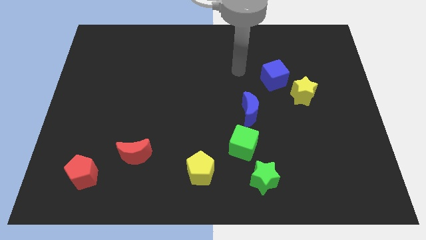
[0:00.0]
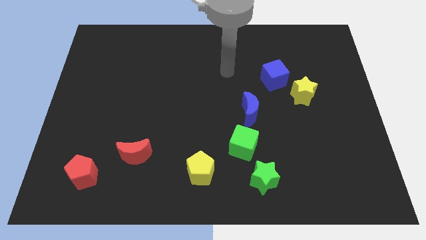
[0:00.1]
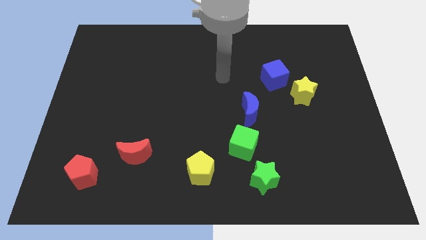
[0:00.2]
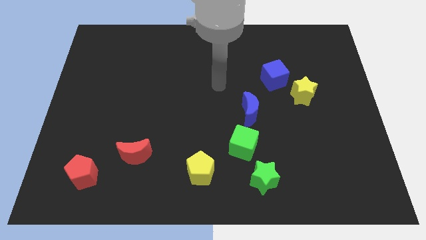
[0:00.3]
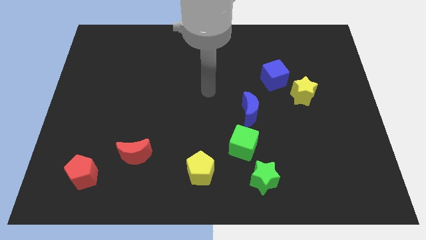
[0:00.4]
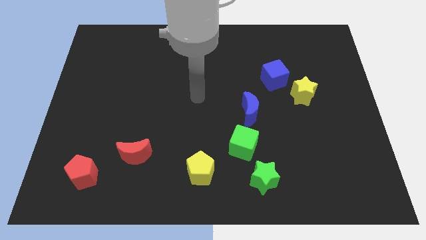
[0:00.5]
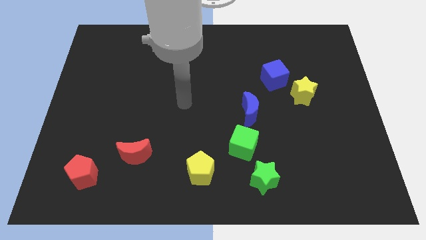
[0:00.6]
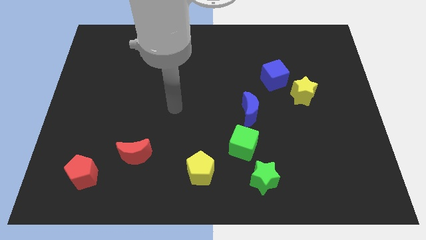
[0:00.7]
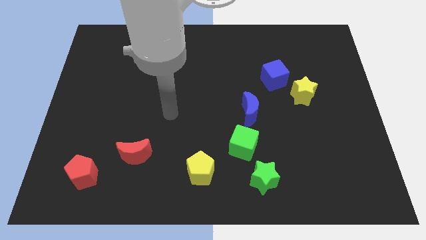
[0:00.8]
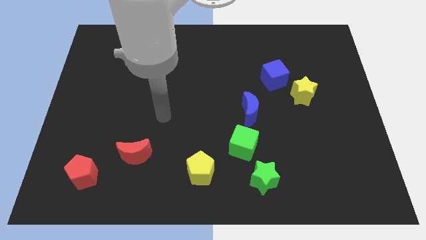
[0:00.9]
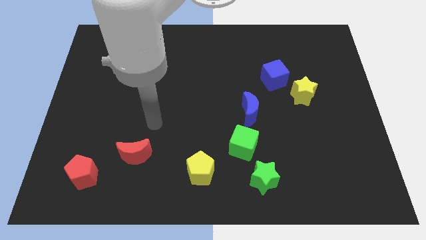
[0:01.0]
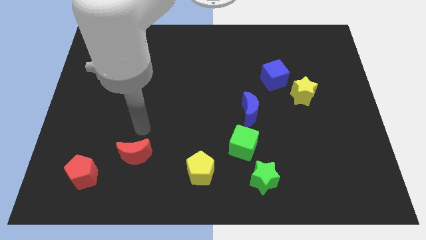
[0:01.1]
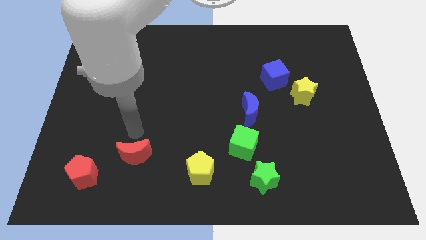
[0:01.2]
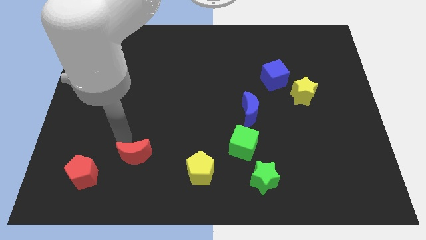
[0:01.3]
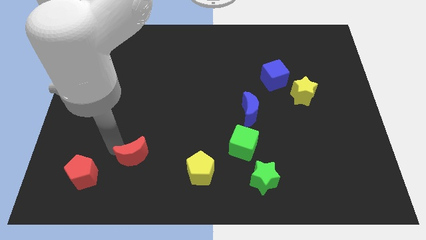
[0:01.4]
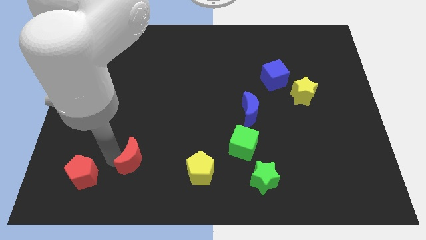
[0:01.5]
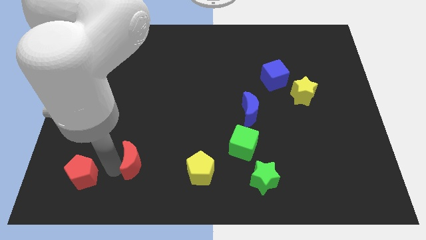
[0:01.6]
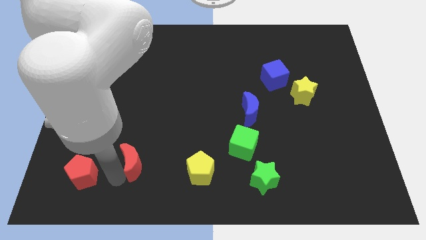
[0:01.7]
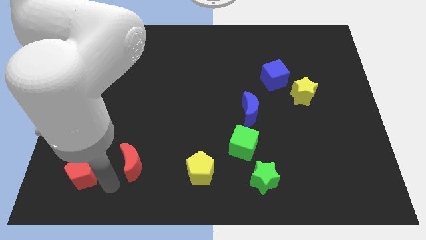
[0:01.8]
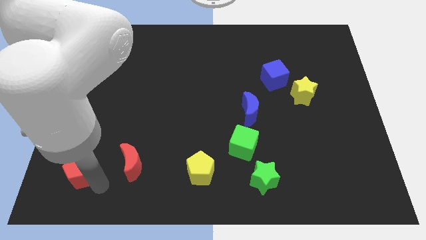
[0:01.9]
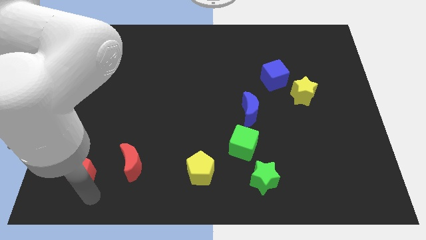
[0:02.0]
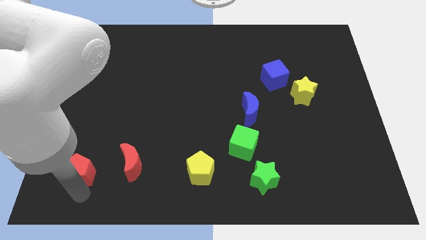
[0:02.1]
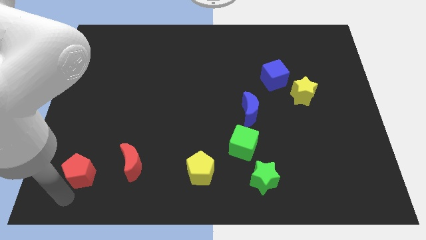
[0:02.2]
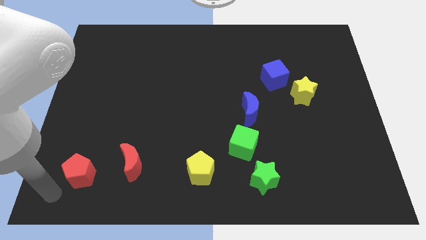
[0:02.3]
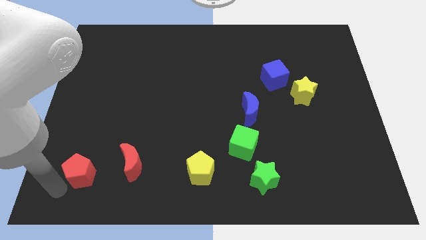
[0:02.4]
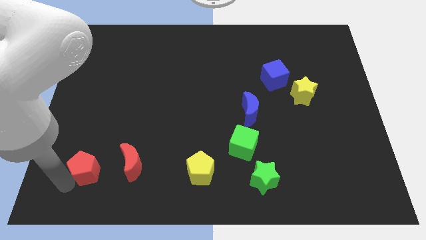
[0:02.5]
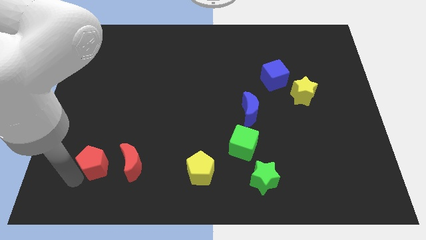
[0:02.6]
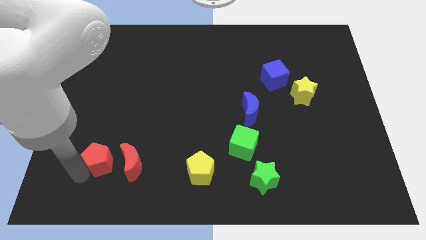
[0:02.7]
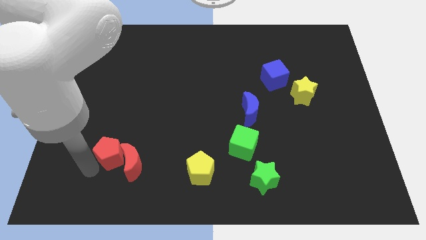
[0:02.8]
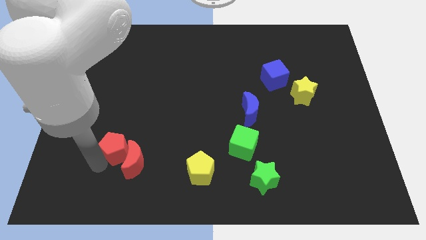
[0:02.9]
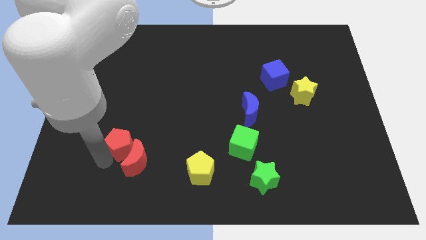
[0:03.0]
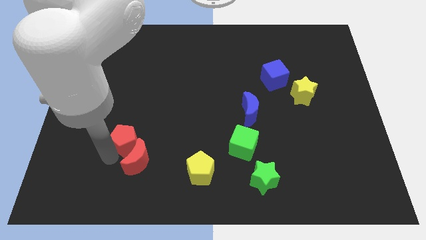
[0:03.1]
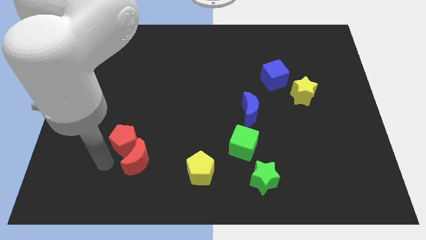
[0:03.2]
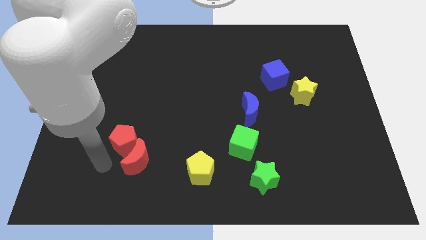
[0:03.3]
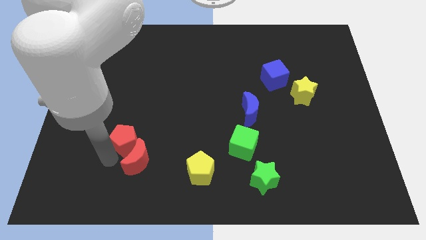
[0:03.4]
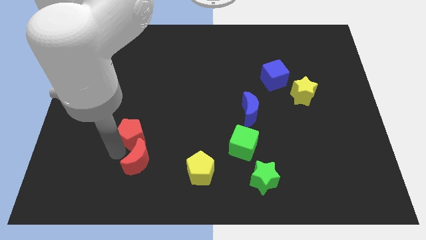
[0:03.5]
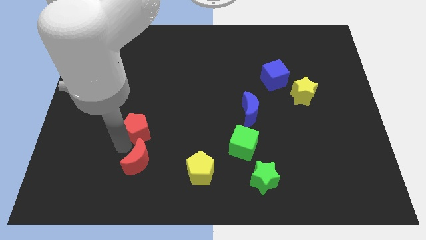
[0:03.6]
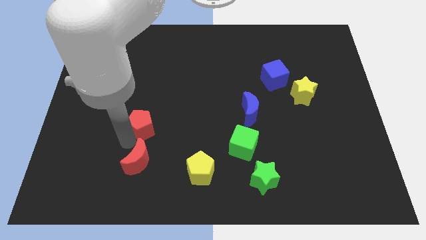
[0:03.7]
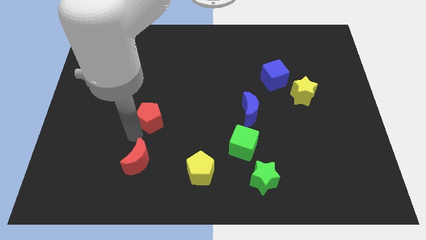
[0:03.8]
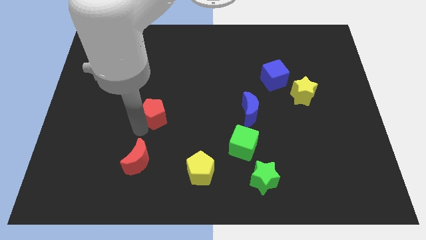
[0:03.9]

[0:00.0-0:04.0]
move the red pentagon upwards and to the right

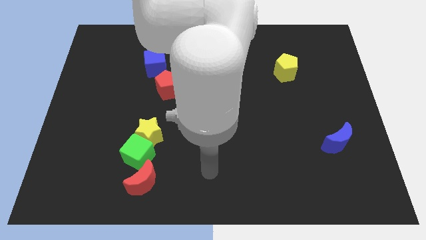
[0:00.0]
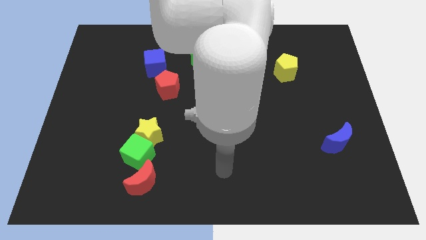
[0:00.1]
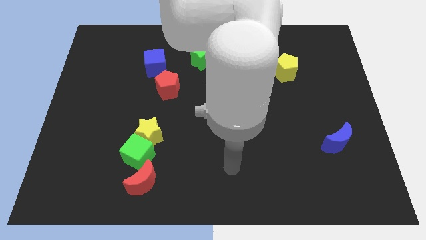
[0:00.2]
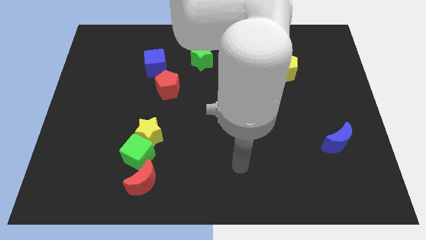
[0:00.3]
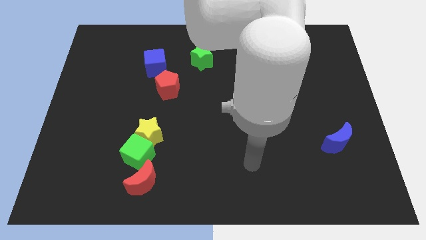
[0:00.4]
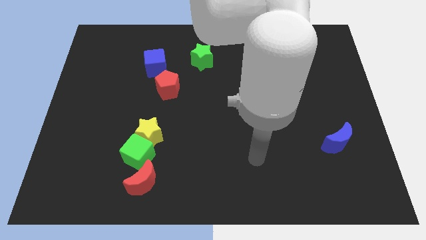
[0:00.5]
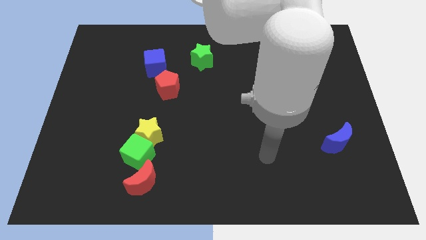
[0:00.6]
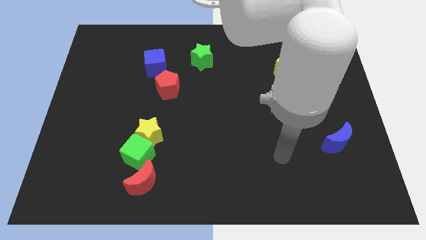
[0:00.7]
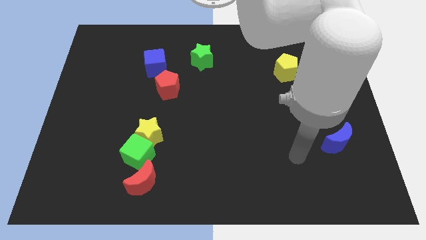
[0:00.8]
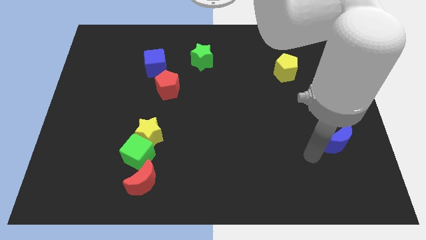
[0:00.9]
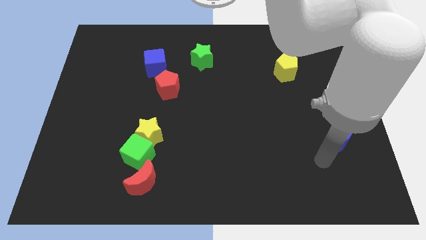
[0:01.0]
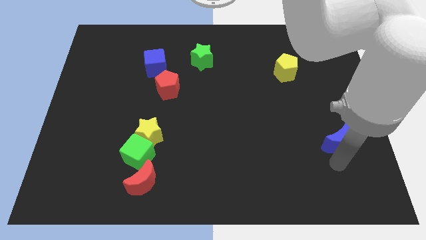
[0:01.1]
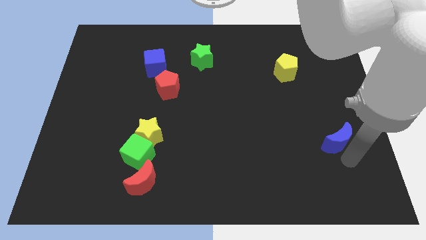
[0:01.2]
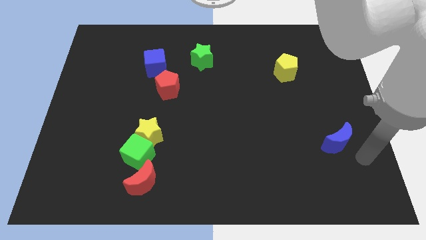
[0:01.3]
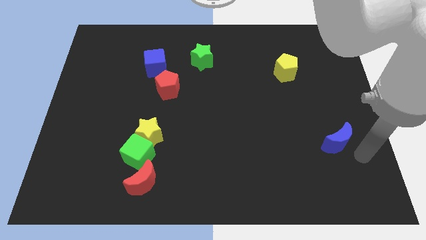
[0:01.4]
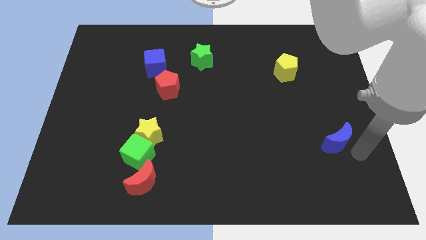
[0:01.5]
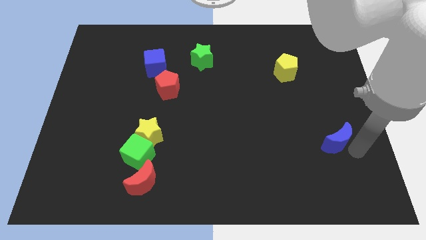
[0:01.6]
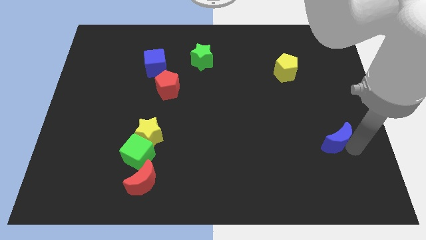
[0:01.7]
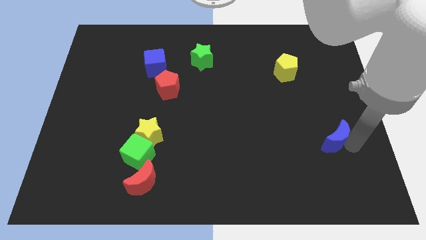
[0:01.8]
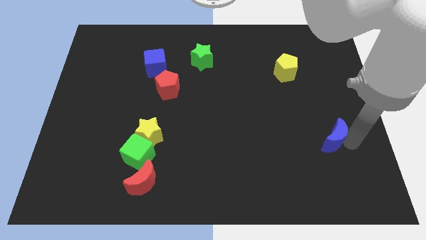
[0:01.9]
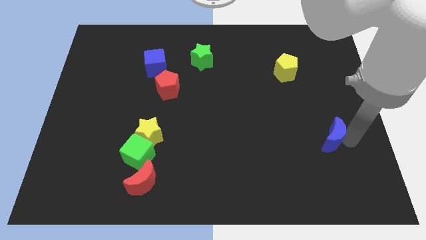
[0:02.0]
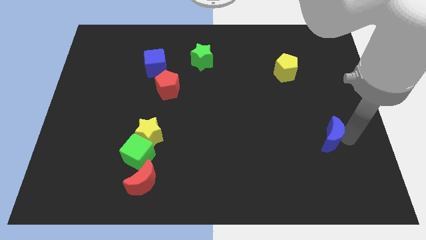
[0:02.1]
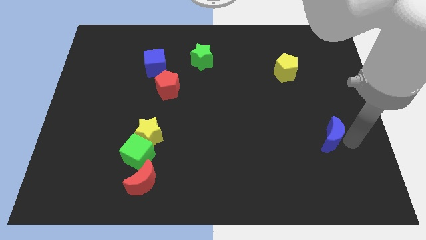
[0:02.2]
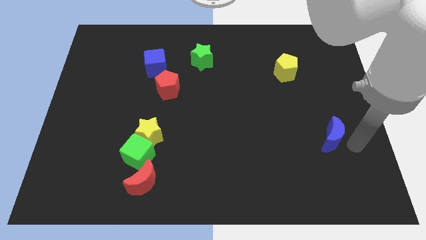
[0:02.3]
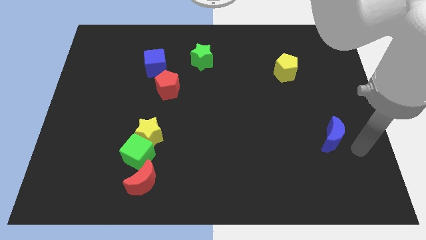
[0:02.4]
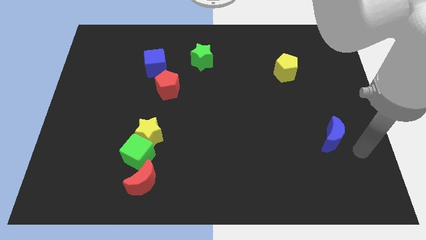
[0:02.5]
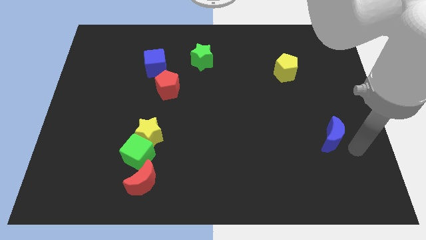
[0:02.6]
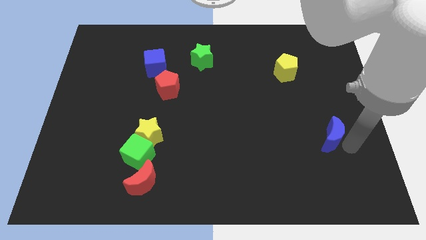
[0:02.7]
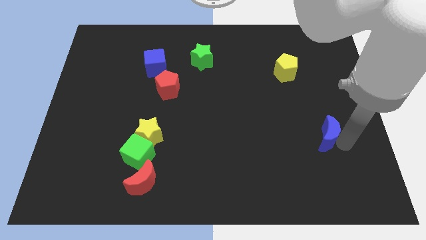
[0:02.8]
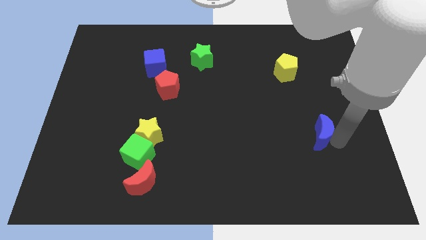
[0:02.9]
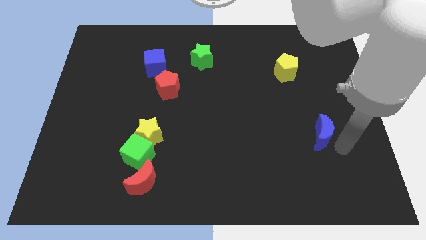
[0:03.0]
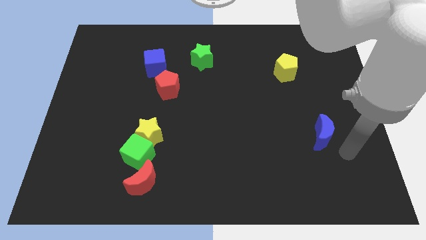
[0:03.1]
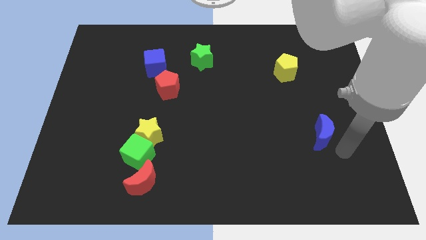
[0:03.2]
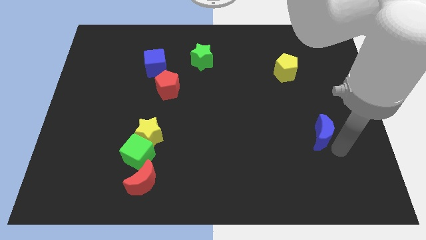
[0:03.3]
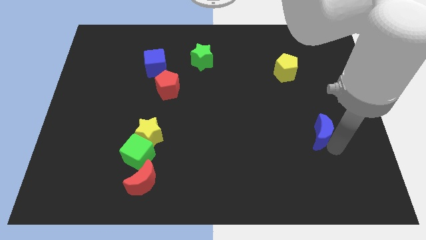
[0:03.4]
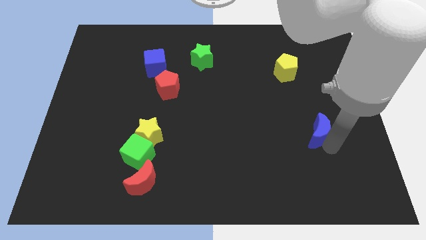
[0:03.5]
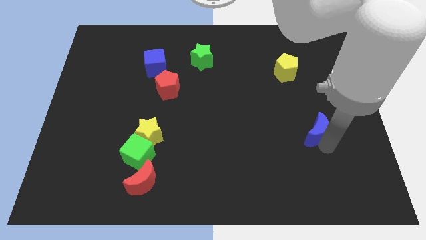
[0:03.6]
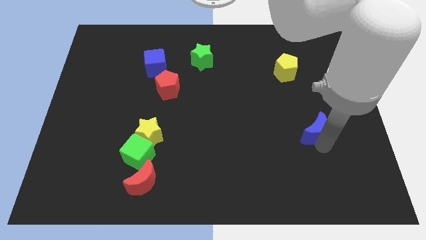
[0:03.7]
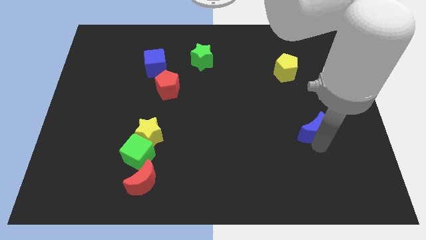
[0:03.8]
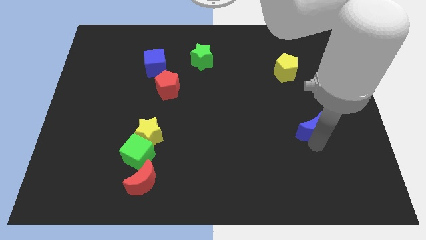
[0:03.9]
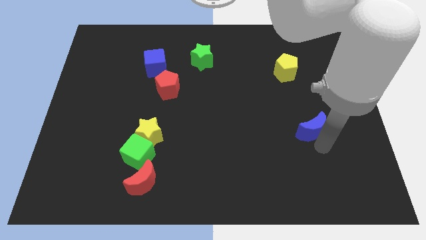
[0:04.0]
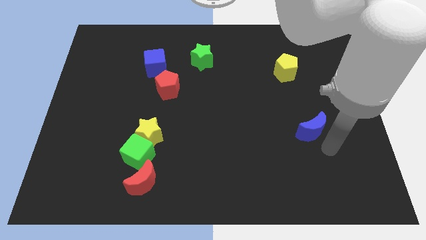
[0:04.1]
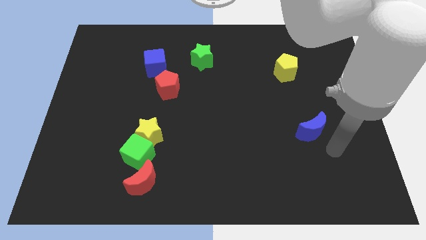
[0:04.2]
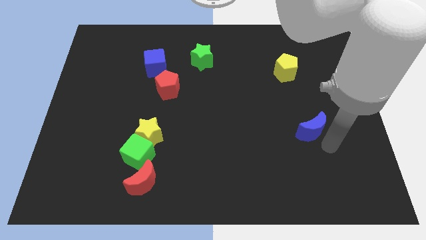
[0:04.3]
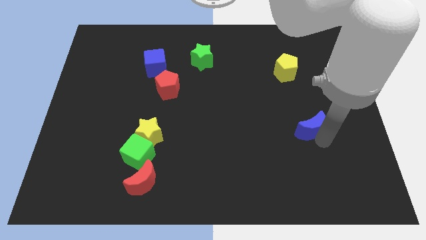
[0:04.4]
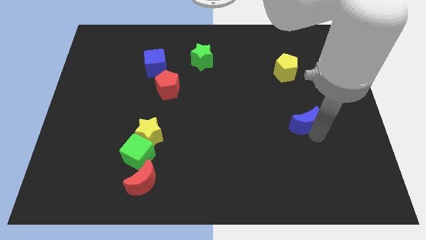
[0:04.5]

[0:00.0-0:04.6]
slightly move the blue moon diagonally upwards and left
